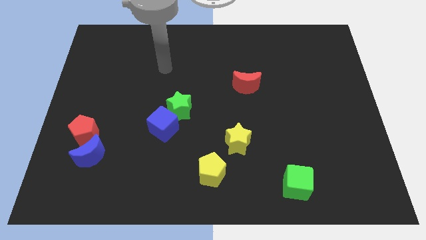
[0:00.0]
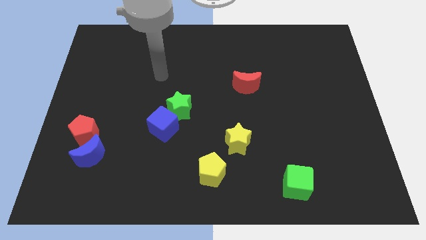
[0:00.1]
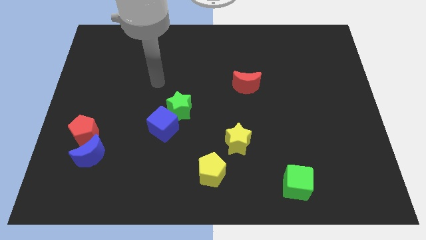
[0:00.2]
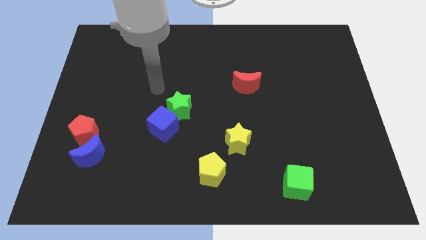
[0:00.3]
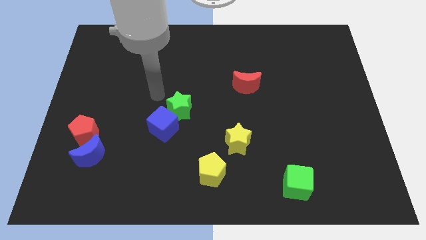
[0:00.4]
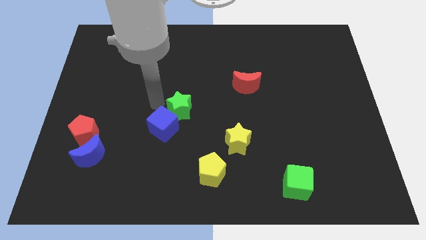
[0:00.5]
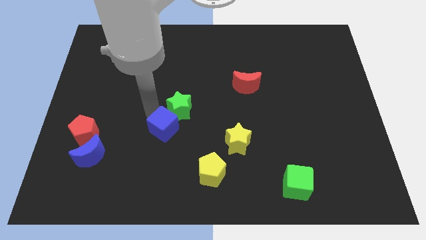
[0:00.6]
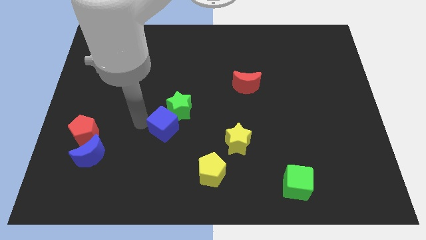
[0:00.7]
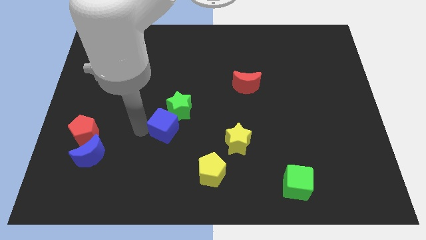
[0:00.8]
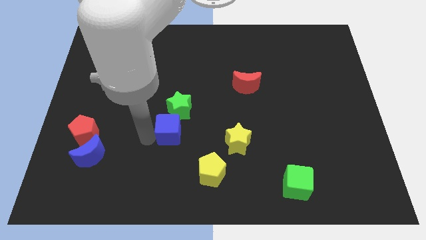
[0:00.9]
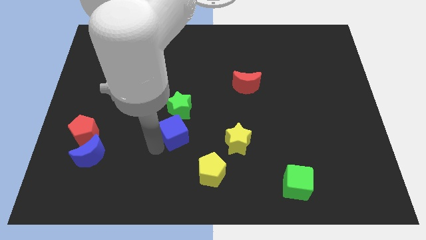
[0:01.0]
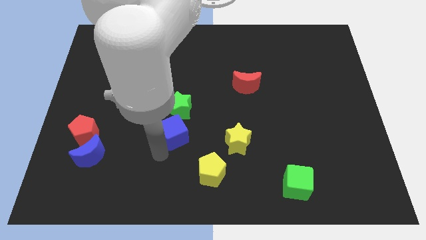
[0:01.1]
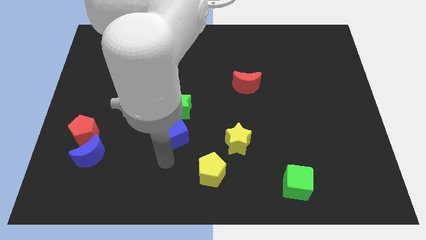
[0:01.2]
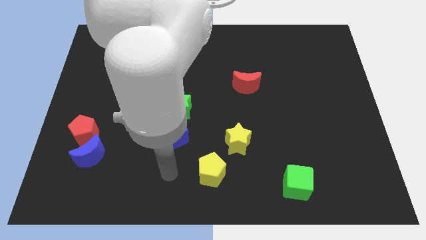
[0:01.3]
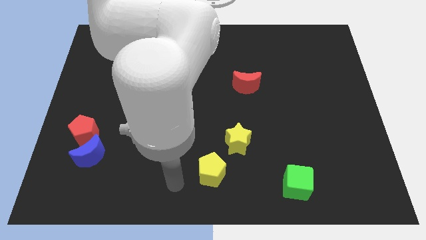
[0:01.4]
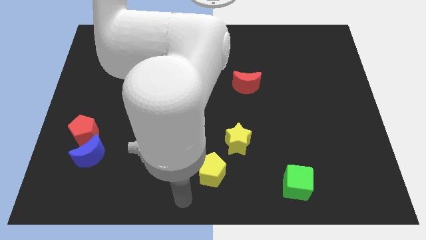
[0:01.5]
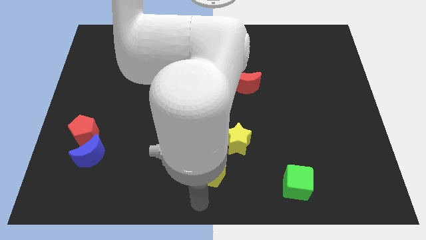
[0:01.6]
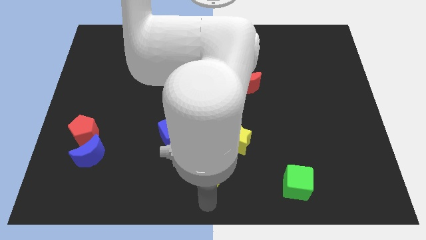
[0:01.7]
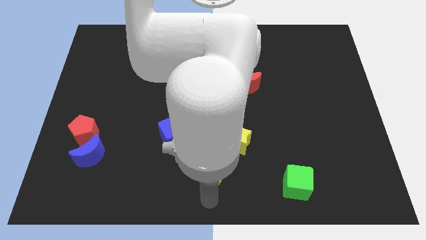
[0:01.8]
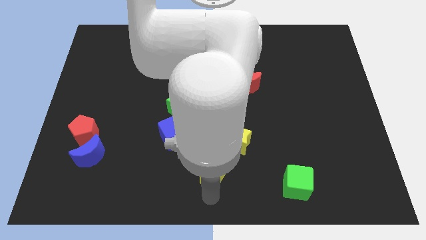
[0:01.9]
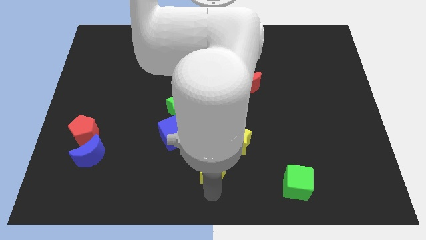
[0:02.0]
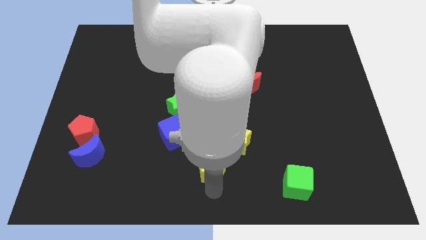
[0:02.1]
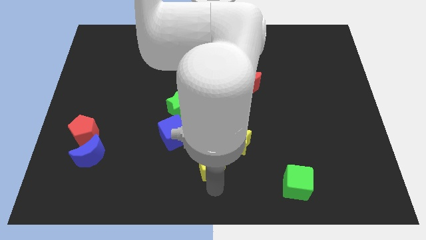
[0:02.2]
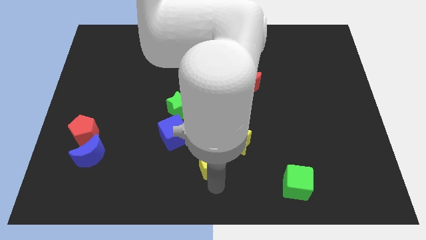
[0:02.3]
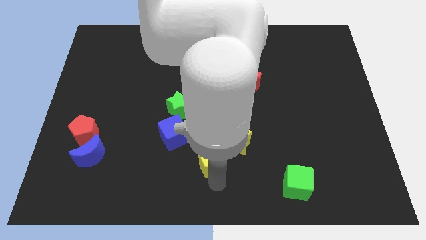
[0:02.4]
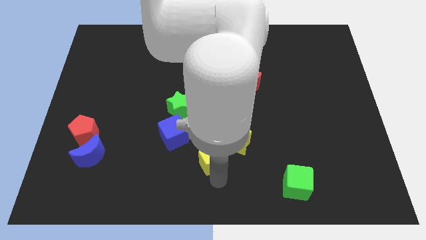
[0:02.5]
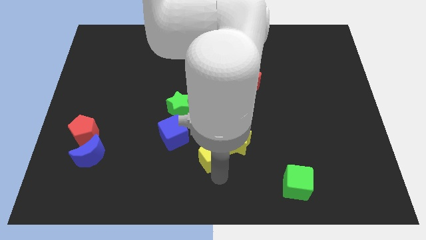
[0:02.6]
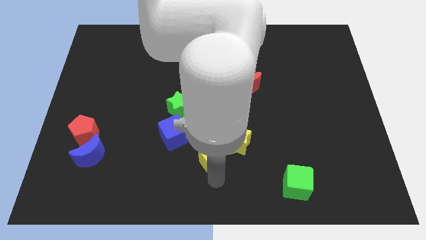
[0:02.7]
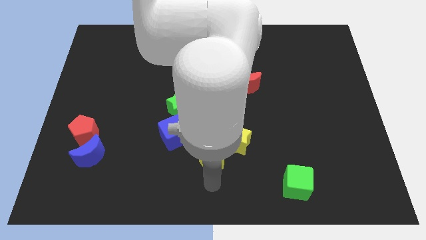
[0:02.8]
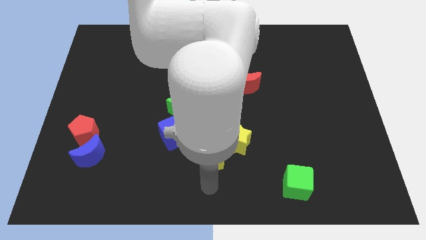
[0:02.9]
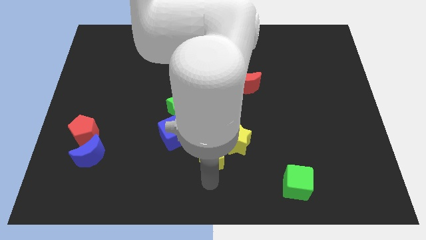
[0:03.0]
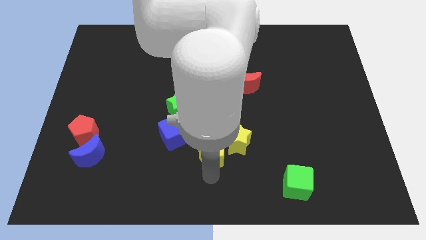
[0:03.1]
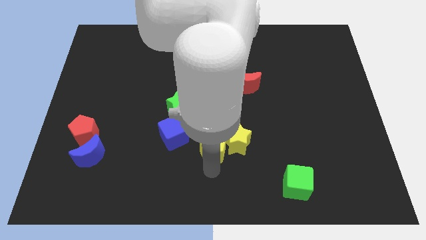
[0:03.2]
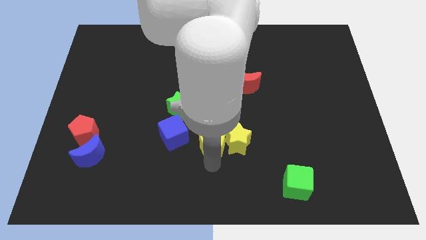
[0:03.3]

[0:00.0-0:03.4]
push the yellow pentagon slightly upwards

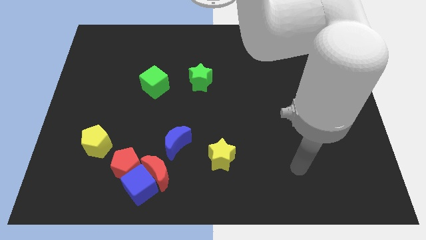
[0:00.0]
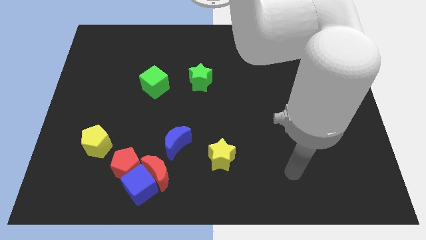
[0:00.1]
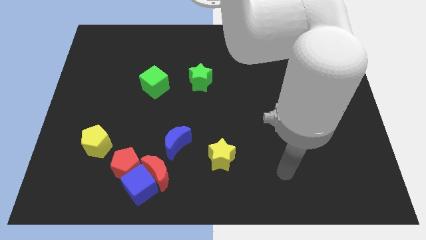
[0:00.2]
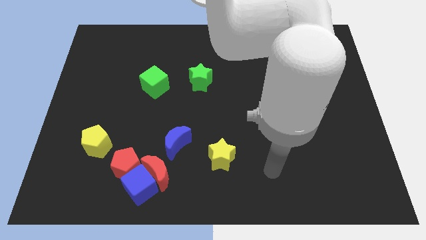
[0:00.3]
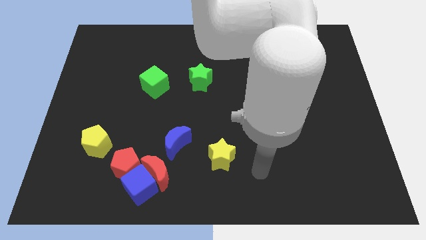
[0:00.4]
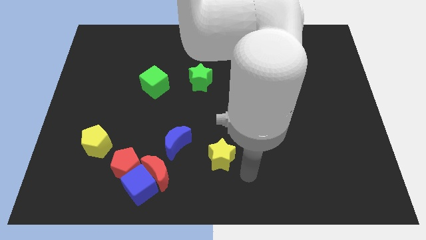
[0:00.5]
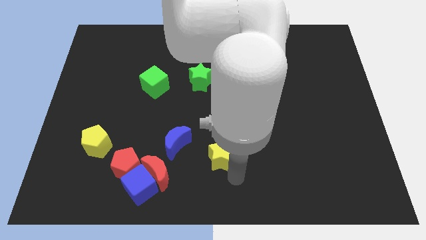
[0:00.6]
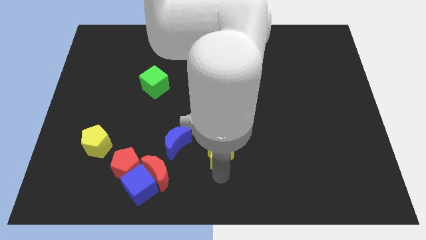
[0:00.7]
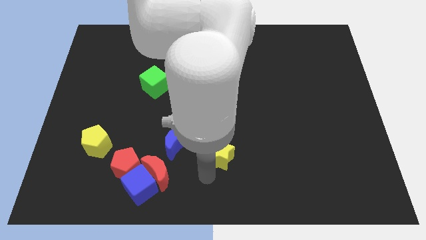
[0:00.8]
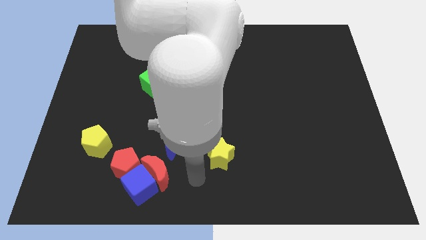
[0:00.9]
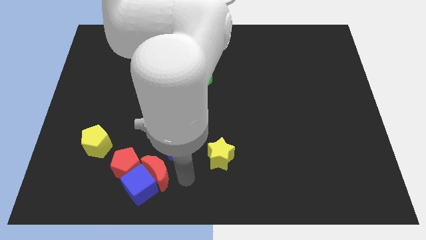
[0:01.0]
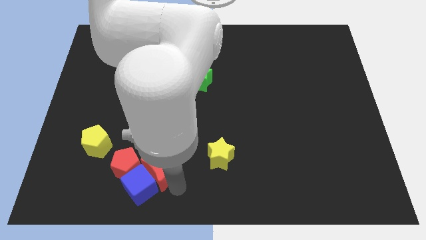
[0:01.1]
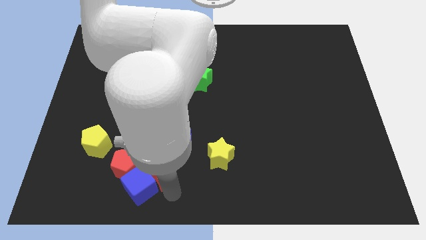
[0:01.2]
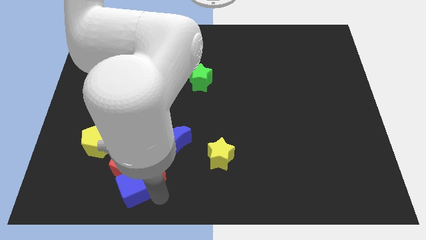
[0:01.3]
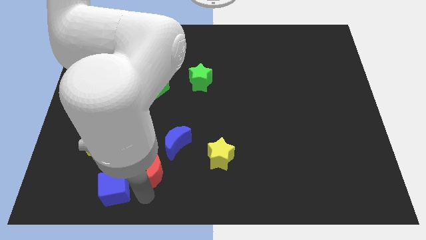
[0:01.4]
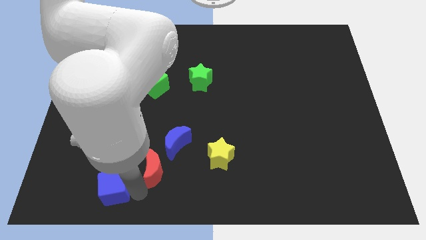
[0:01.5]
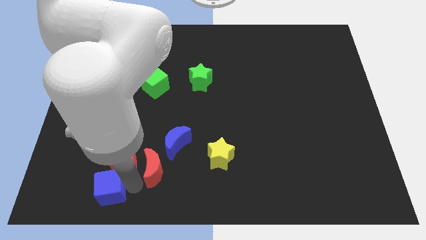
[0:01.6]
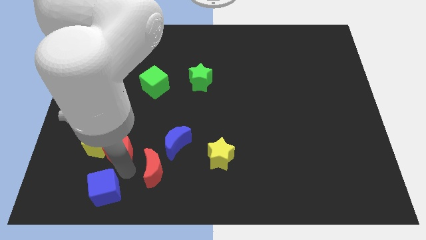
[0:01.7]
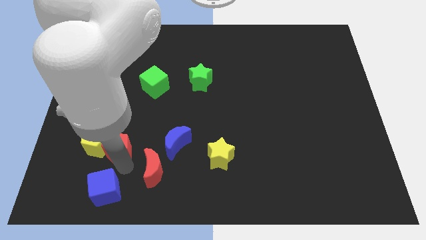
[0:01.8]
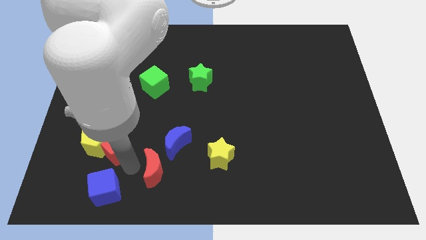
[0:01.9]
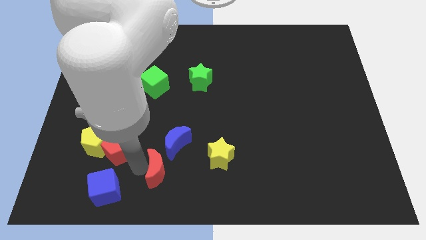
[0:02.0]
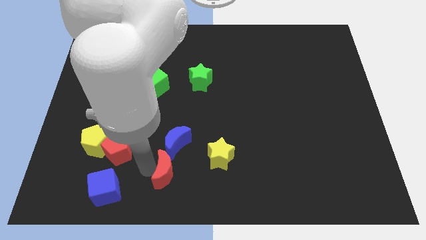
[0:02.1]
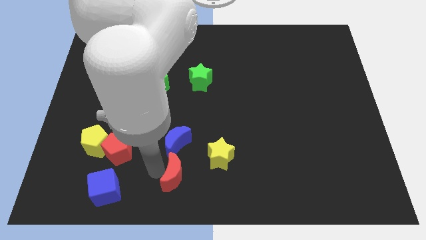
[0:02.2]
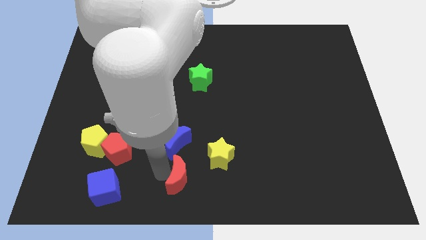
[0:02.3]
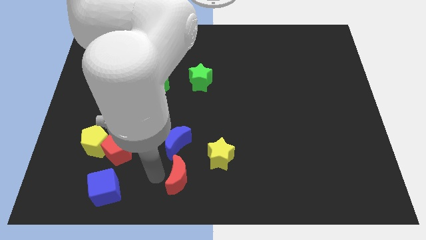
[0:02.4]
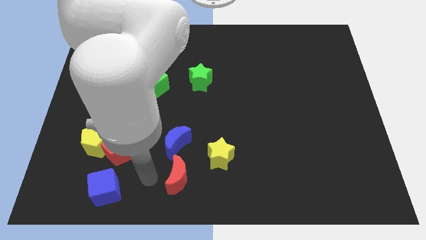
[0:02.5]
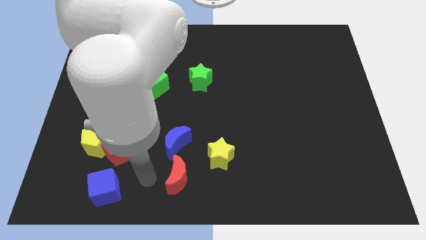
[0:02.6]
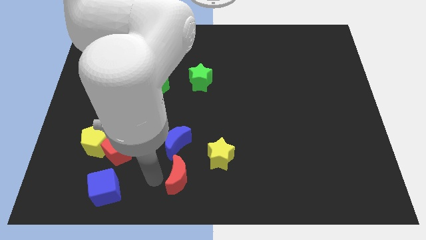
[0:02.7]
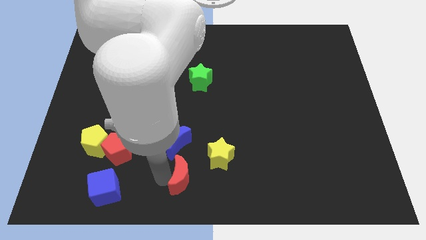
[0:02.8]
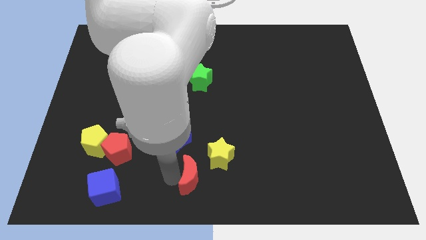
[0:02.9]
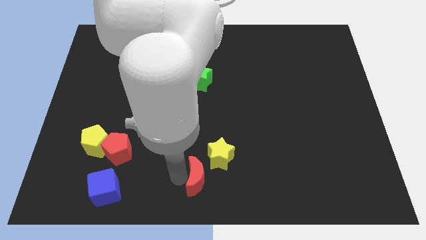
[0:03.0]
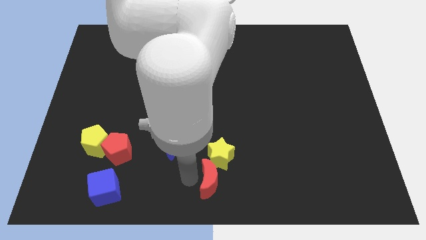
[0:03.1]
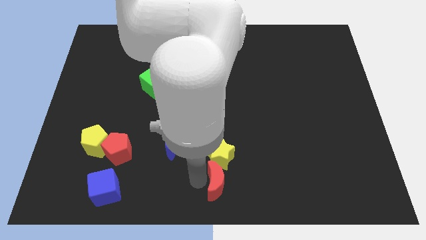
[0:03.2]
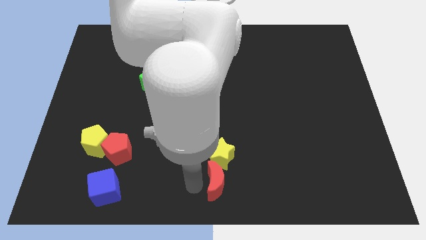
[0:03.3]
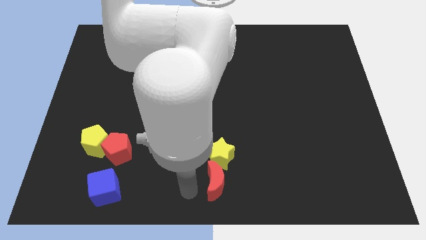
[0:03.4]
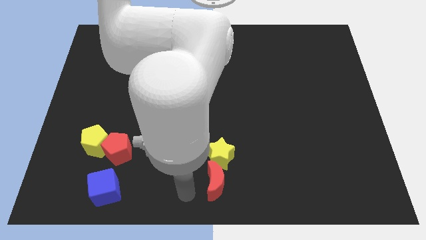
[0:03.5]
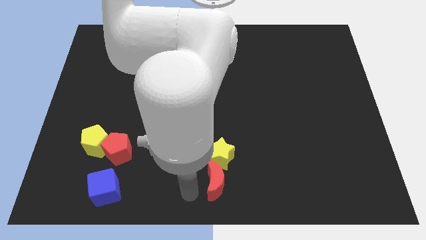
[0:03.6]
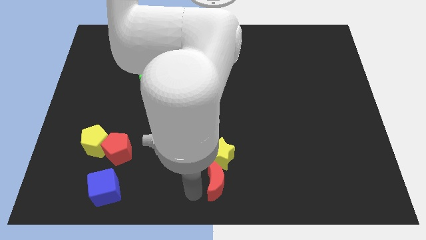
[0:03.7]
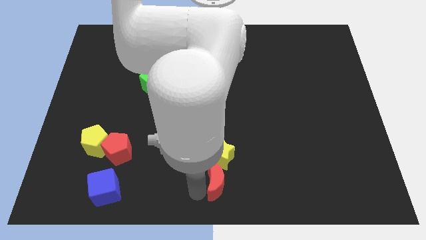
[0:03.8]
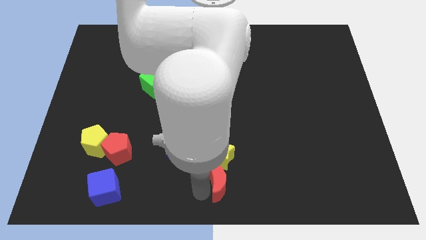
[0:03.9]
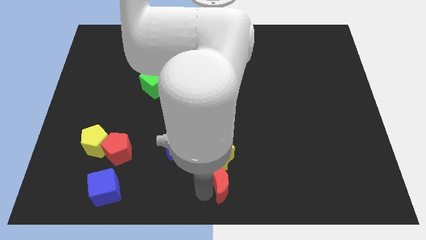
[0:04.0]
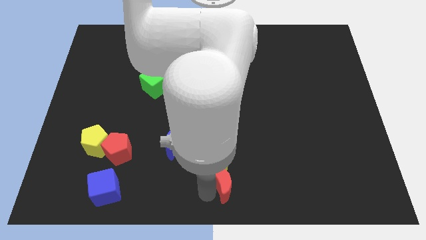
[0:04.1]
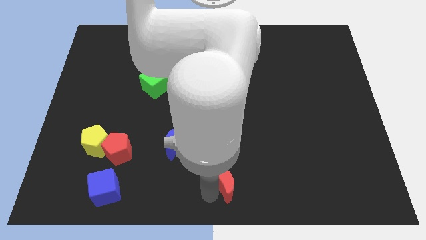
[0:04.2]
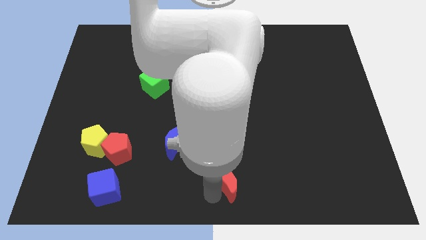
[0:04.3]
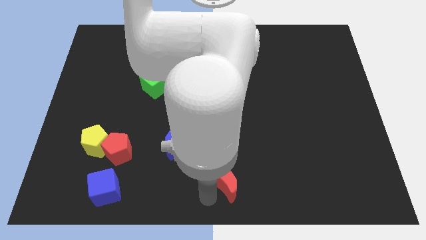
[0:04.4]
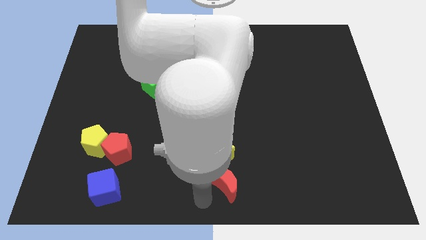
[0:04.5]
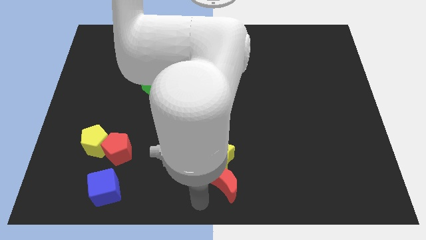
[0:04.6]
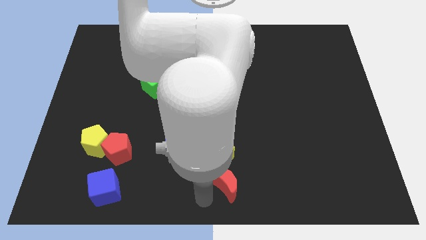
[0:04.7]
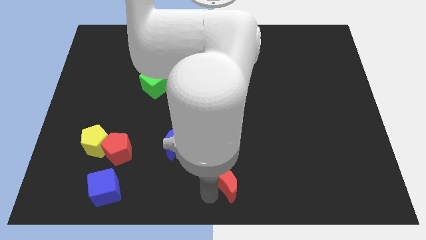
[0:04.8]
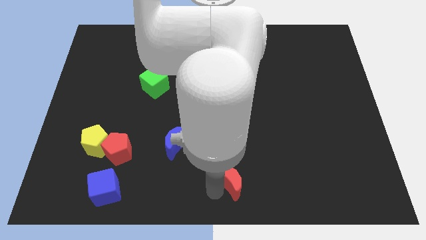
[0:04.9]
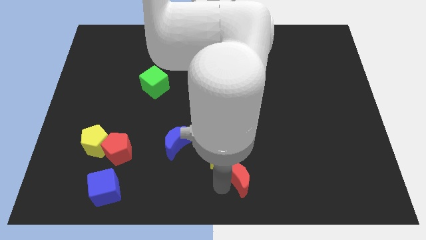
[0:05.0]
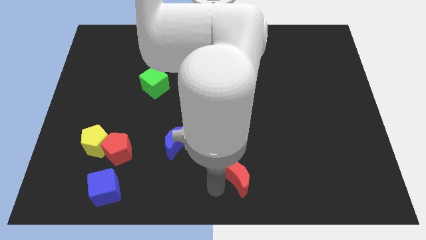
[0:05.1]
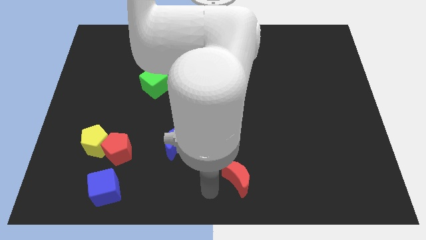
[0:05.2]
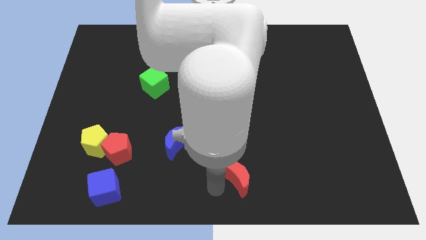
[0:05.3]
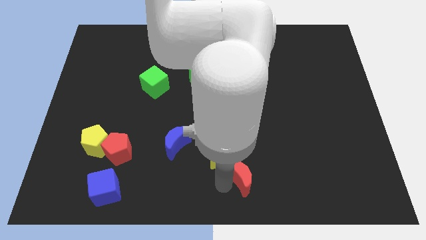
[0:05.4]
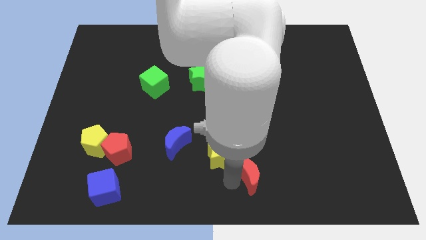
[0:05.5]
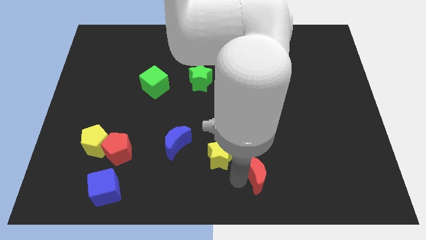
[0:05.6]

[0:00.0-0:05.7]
slide the red moon right
